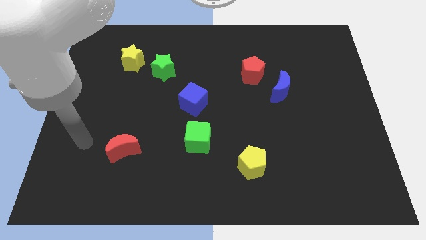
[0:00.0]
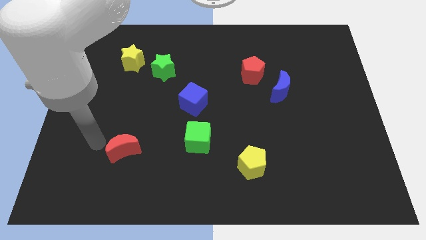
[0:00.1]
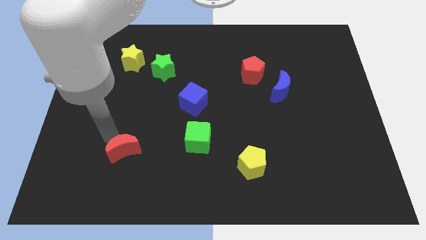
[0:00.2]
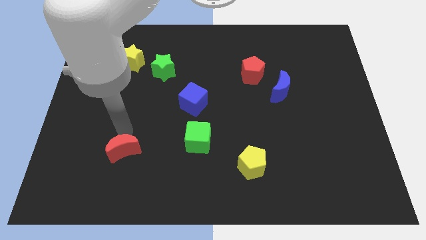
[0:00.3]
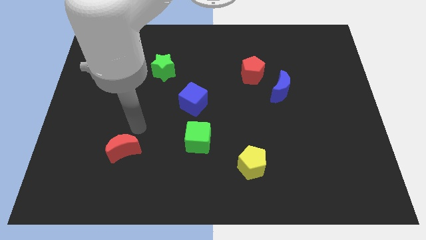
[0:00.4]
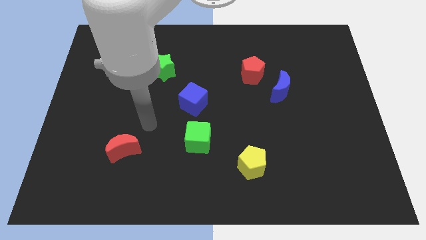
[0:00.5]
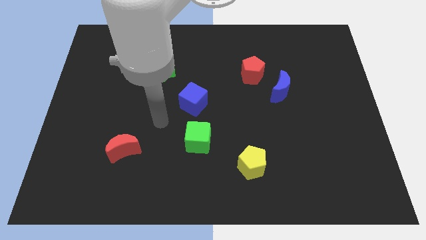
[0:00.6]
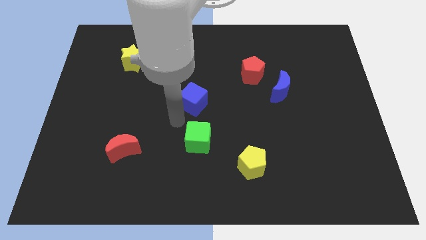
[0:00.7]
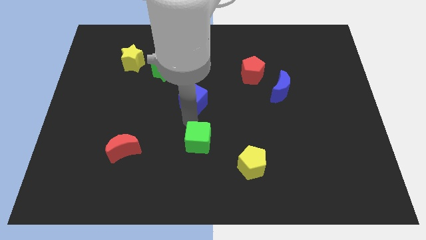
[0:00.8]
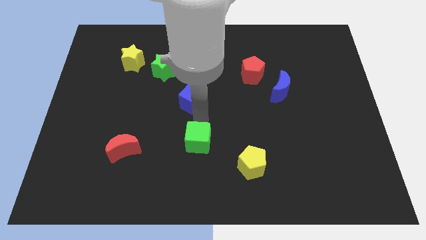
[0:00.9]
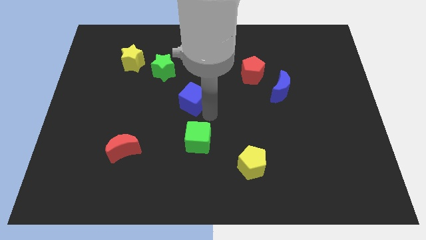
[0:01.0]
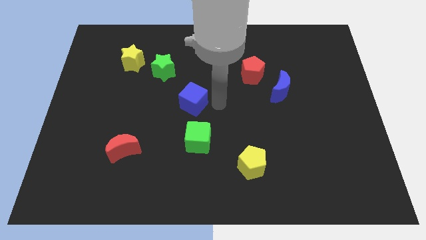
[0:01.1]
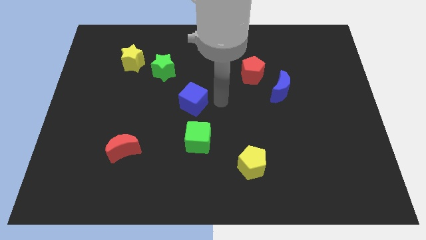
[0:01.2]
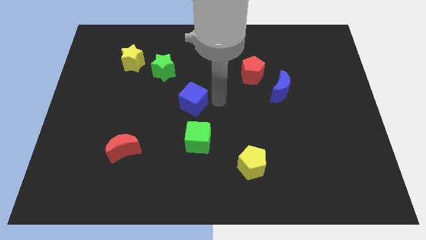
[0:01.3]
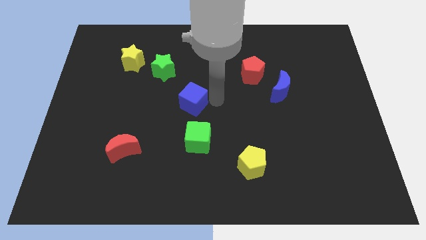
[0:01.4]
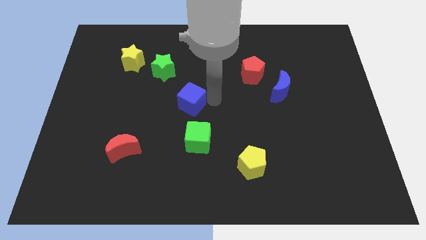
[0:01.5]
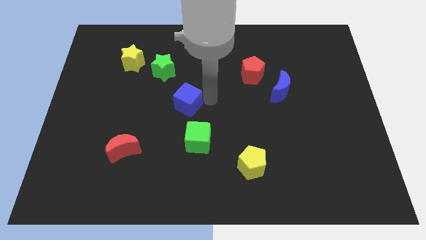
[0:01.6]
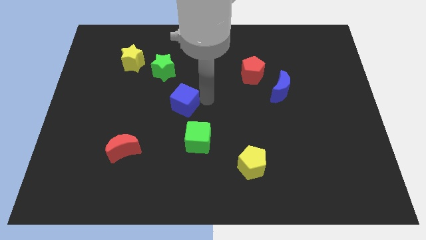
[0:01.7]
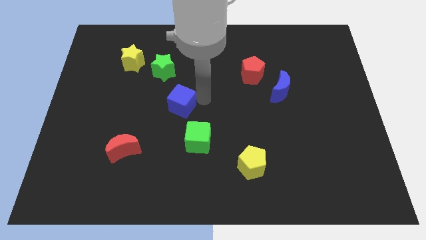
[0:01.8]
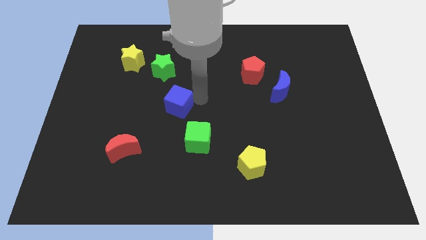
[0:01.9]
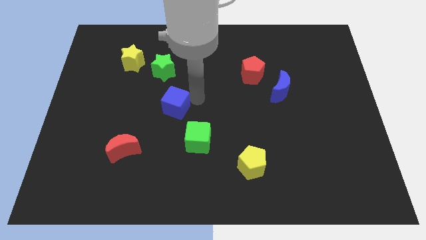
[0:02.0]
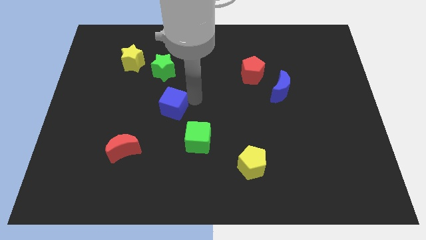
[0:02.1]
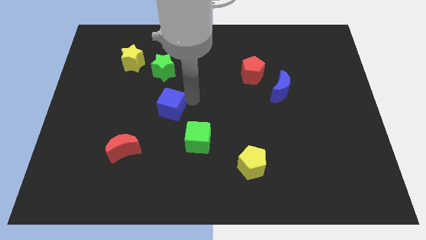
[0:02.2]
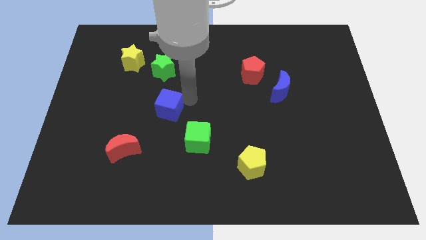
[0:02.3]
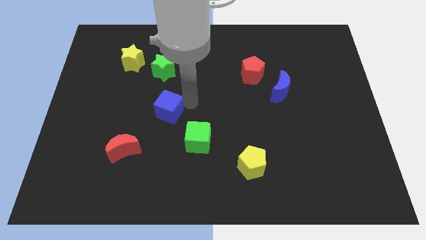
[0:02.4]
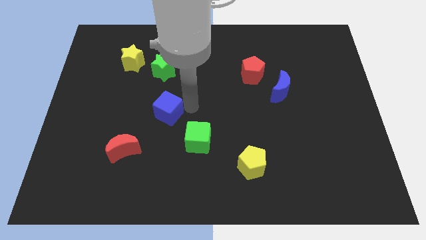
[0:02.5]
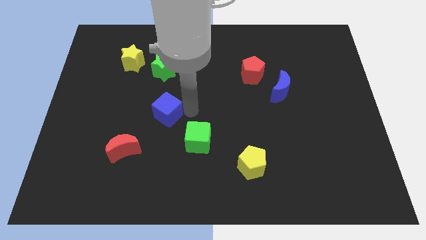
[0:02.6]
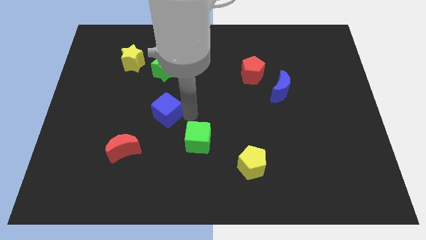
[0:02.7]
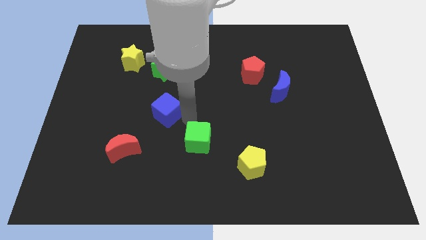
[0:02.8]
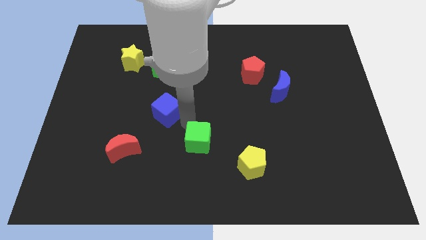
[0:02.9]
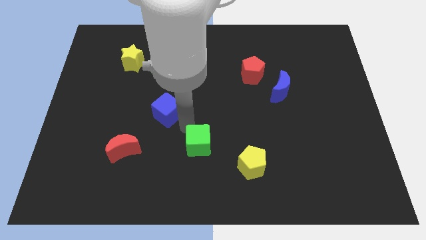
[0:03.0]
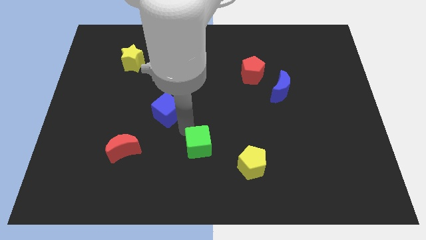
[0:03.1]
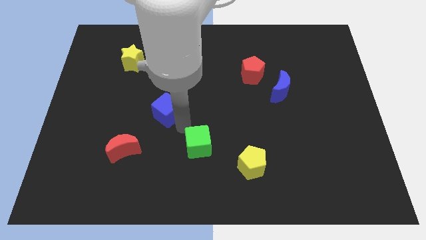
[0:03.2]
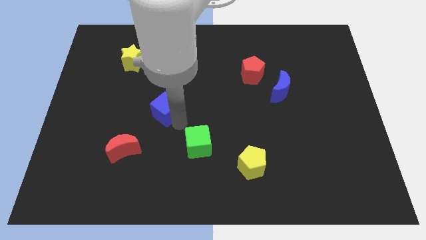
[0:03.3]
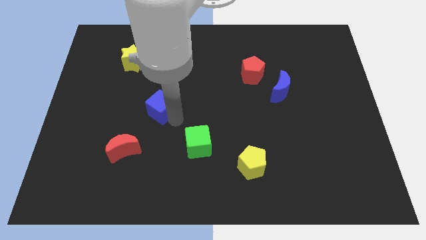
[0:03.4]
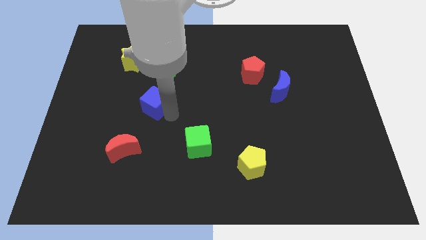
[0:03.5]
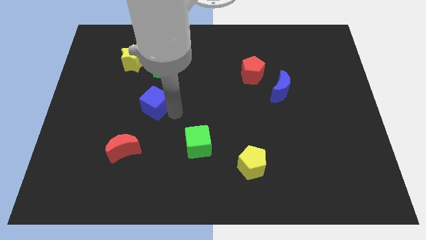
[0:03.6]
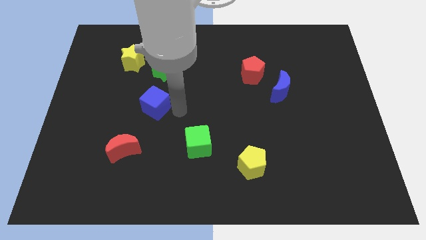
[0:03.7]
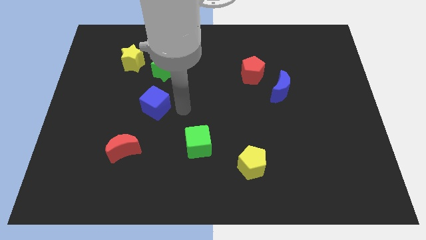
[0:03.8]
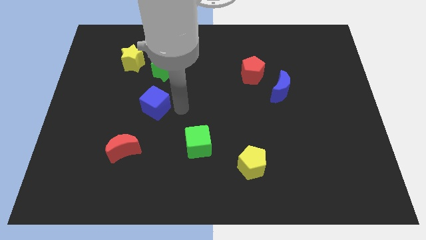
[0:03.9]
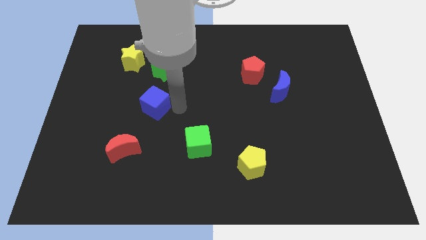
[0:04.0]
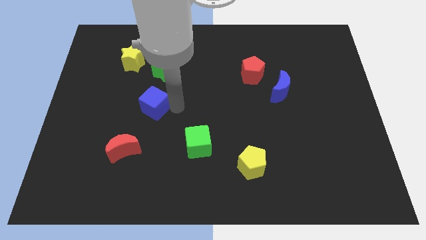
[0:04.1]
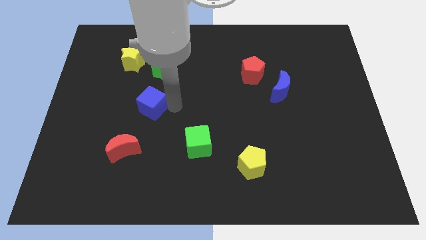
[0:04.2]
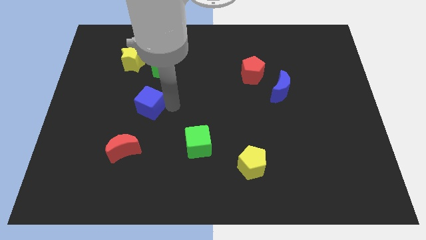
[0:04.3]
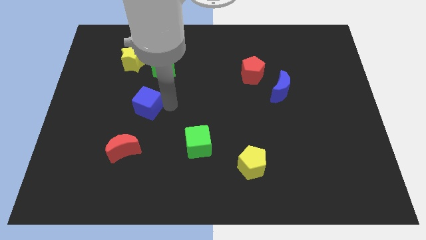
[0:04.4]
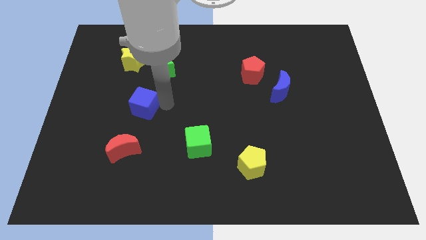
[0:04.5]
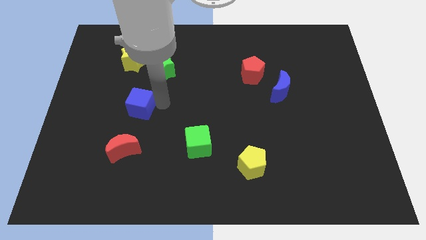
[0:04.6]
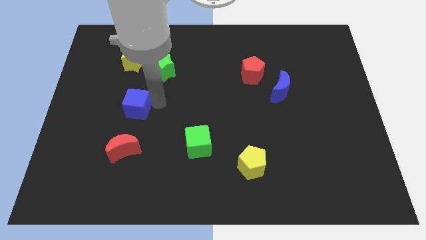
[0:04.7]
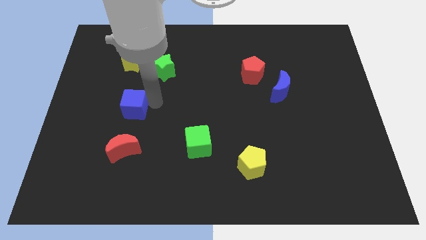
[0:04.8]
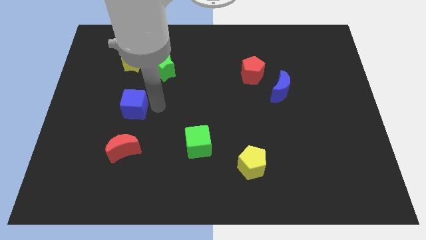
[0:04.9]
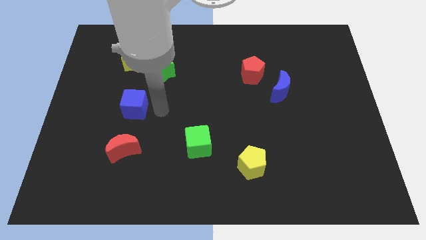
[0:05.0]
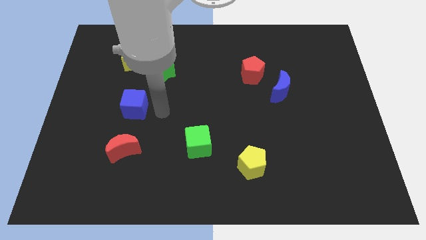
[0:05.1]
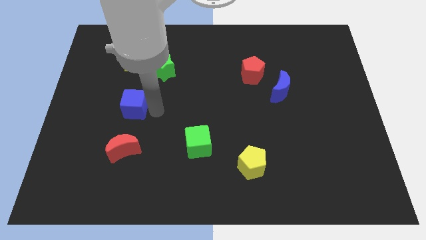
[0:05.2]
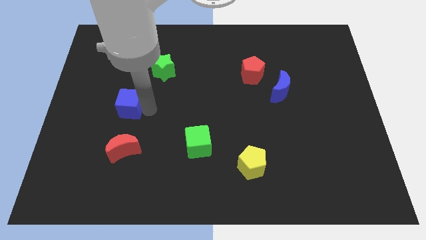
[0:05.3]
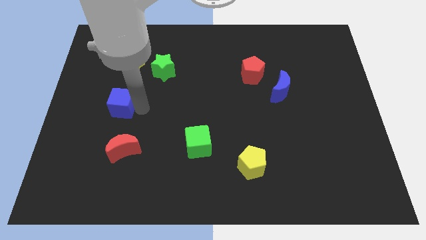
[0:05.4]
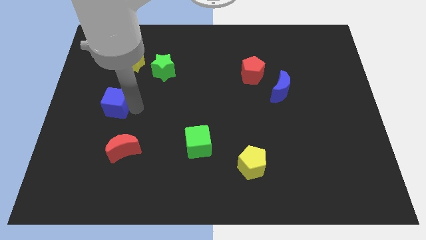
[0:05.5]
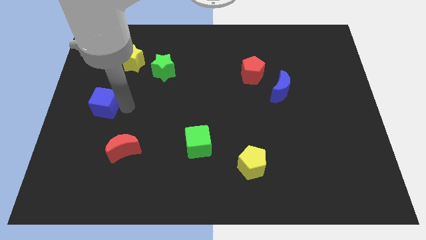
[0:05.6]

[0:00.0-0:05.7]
put the blue cube to the left side
